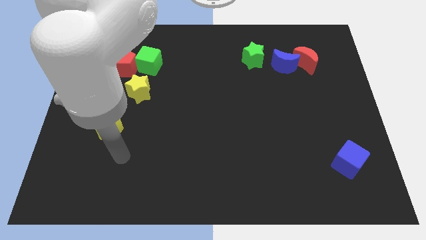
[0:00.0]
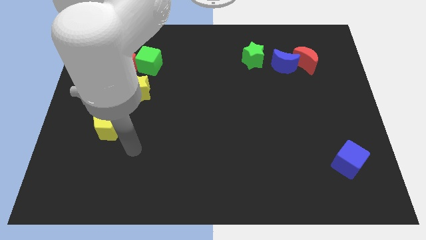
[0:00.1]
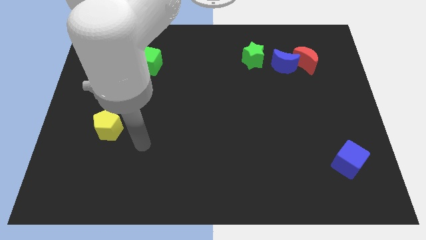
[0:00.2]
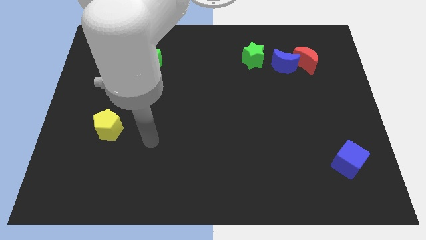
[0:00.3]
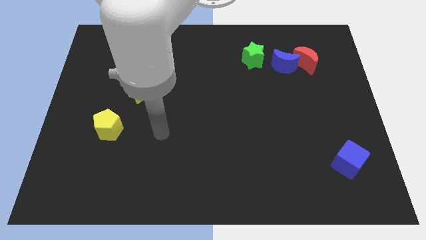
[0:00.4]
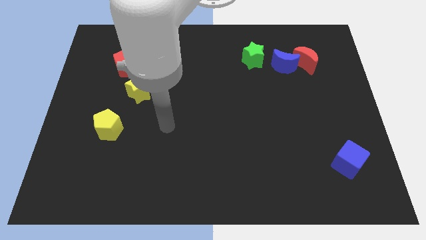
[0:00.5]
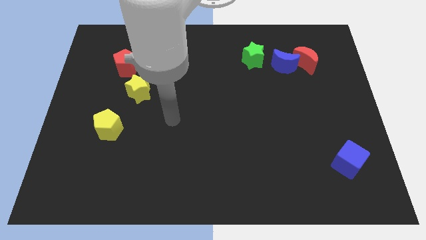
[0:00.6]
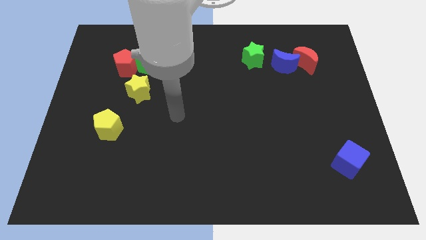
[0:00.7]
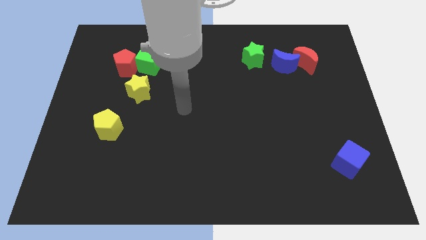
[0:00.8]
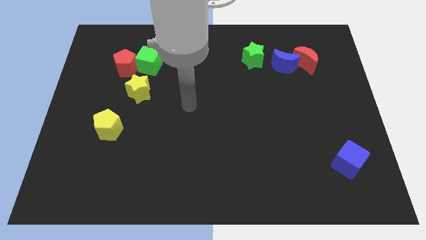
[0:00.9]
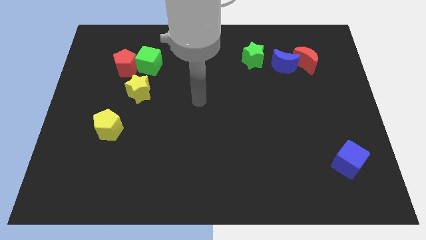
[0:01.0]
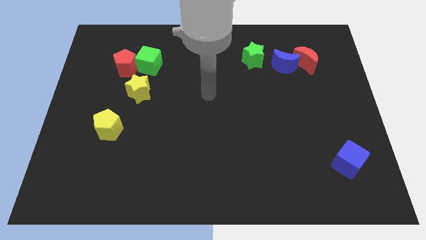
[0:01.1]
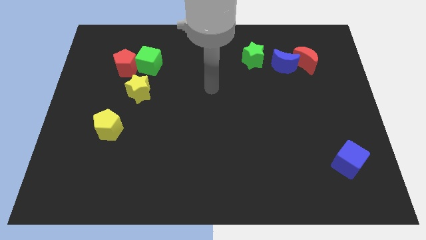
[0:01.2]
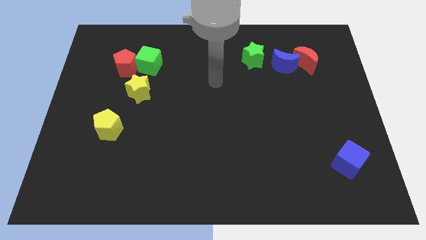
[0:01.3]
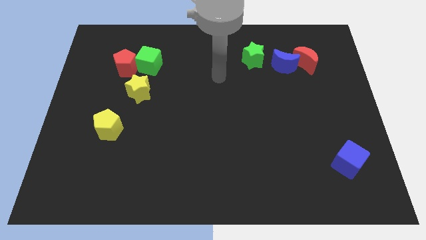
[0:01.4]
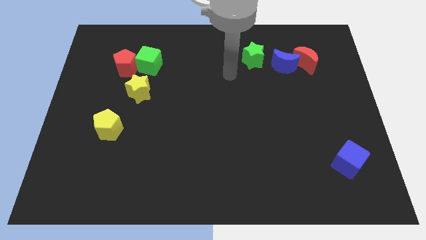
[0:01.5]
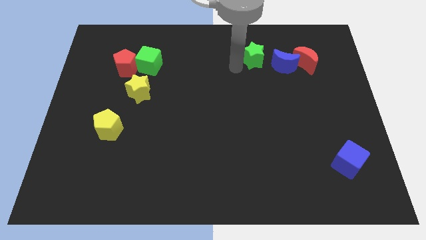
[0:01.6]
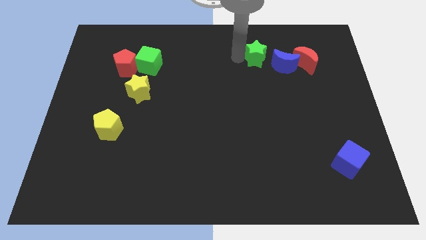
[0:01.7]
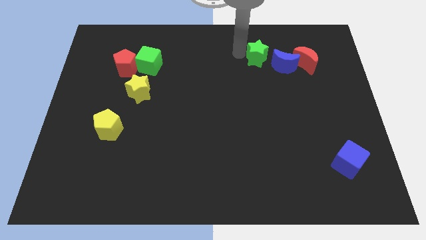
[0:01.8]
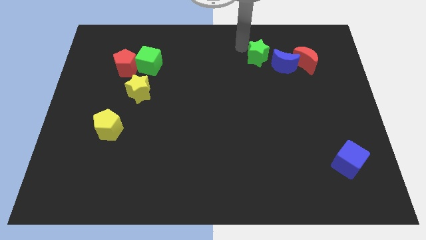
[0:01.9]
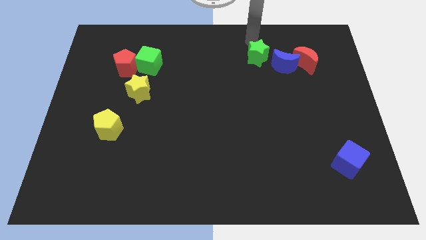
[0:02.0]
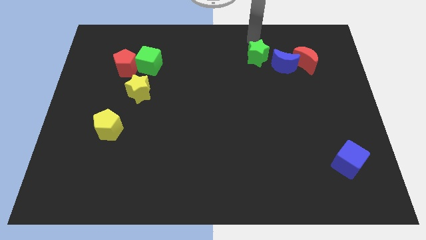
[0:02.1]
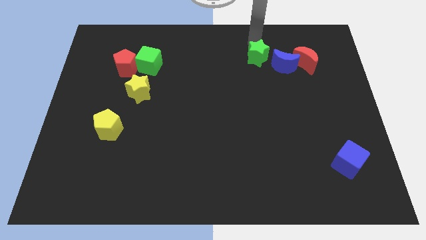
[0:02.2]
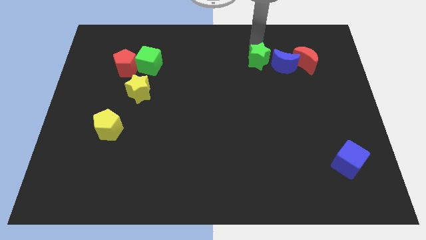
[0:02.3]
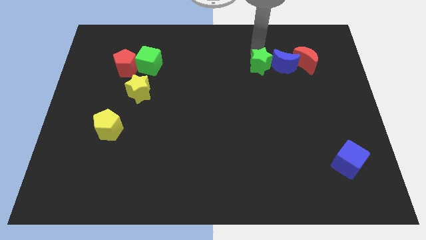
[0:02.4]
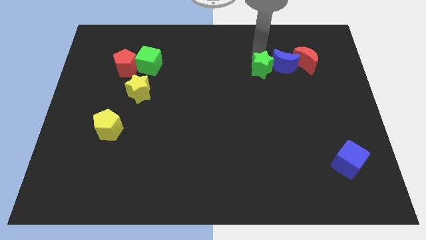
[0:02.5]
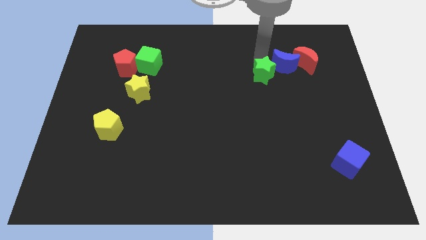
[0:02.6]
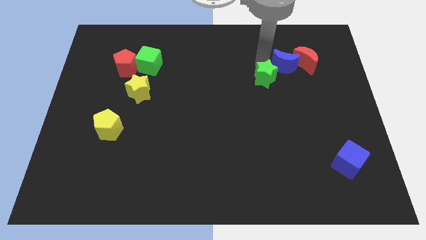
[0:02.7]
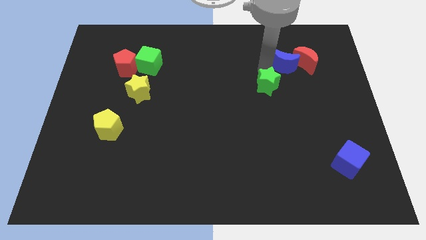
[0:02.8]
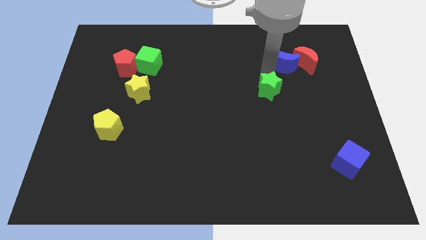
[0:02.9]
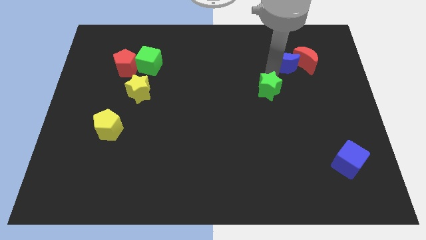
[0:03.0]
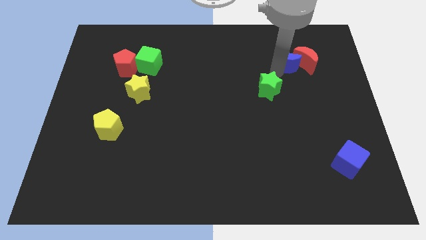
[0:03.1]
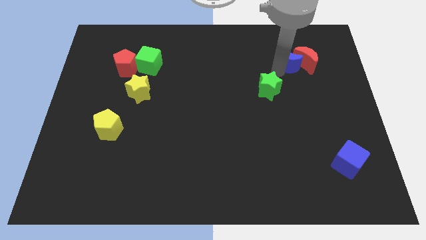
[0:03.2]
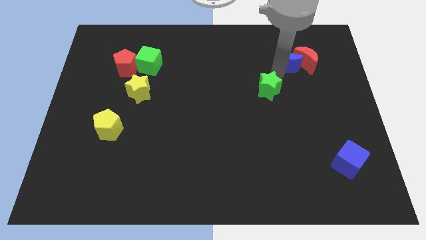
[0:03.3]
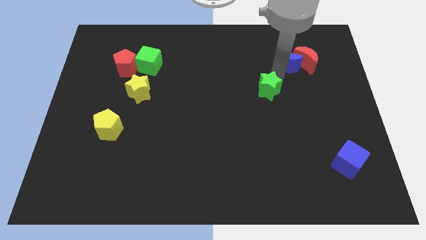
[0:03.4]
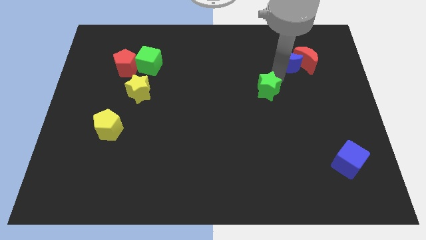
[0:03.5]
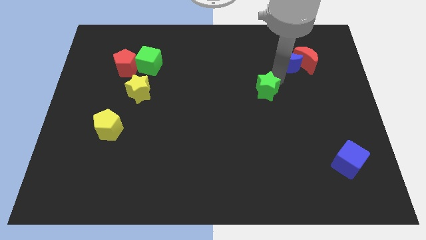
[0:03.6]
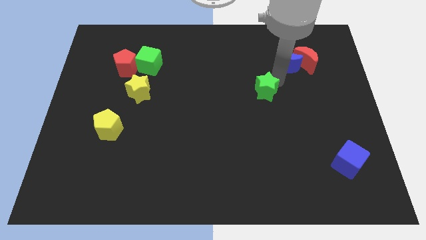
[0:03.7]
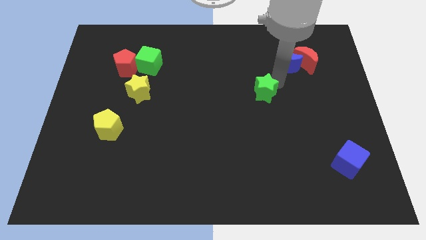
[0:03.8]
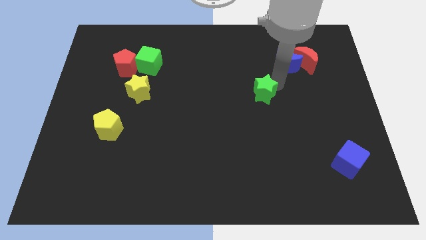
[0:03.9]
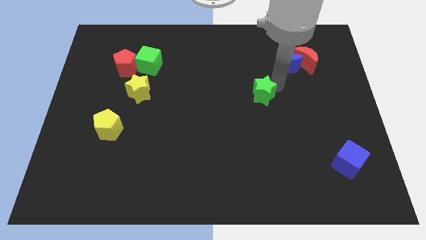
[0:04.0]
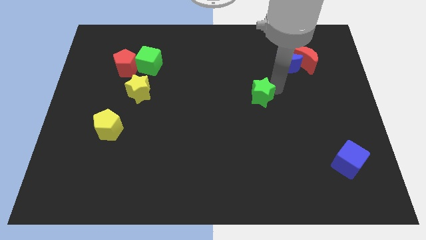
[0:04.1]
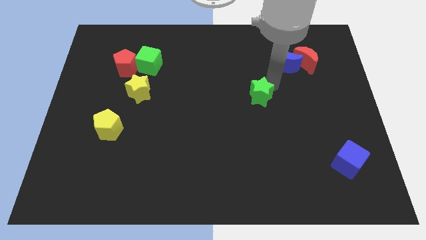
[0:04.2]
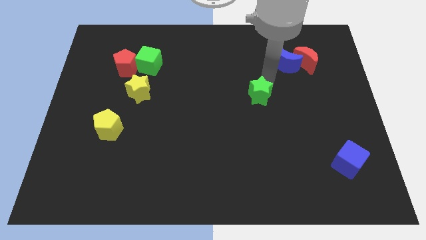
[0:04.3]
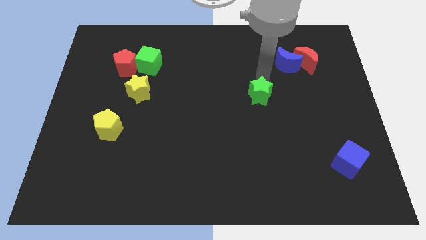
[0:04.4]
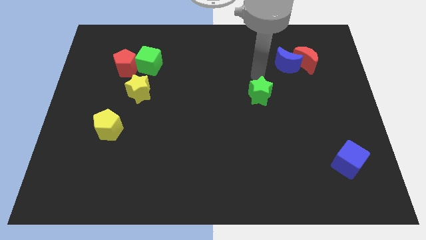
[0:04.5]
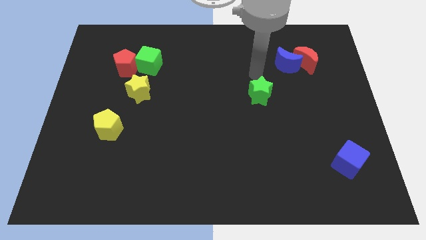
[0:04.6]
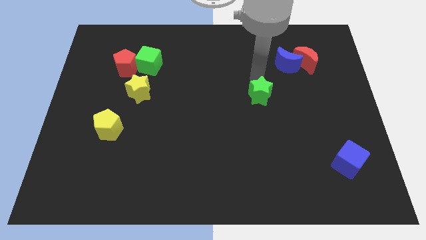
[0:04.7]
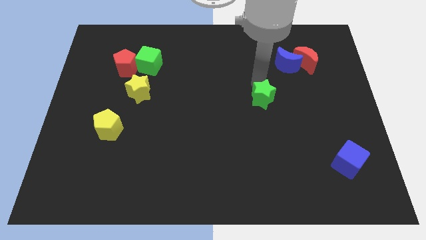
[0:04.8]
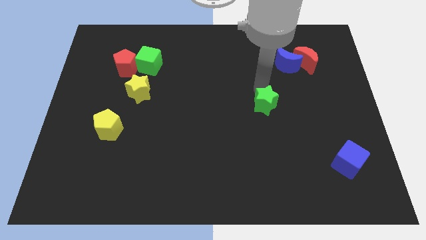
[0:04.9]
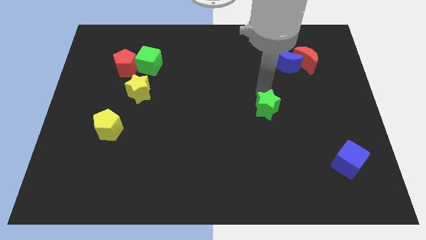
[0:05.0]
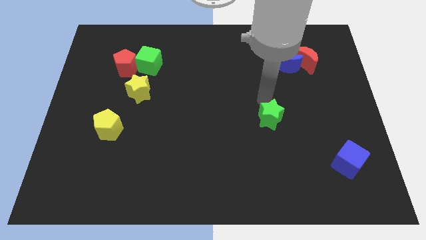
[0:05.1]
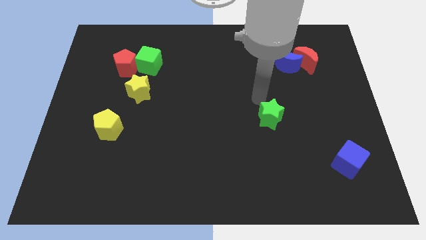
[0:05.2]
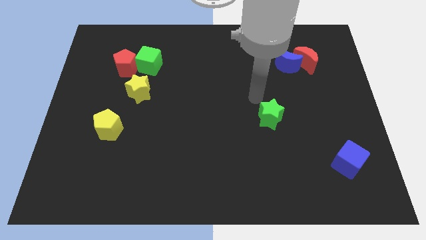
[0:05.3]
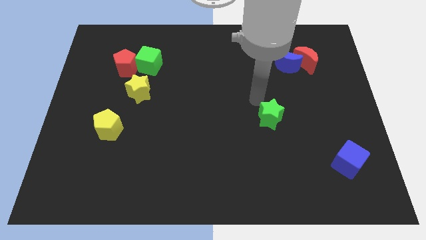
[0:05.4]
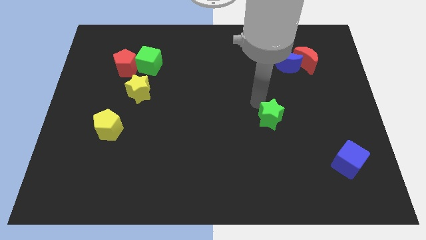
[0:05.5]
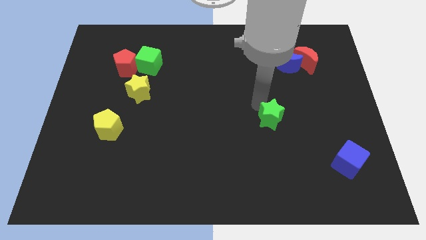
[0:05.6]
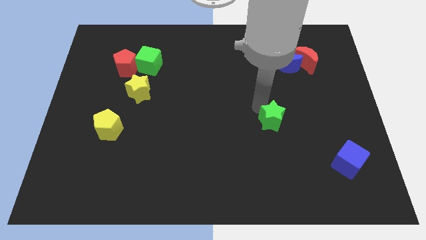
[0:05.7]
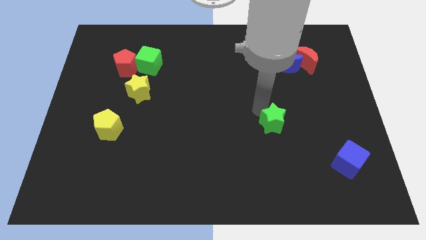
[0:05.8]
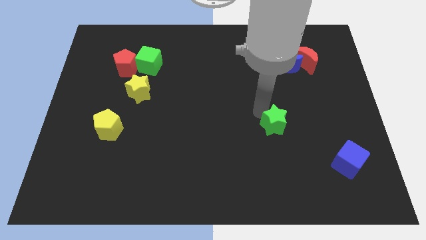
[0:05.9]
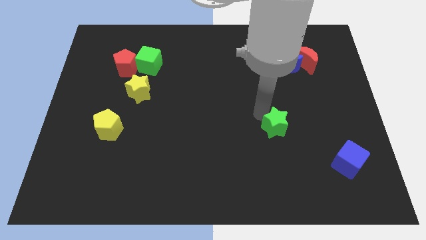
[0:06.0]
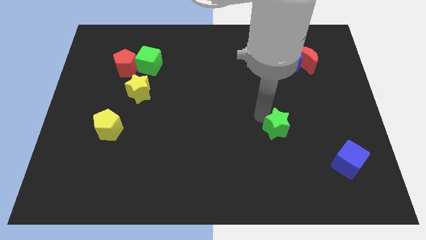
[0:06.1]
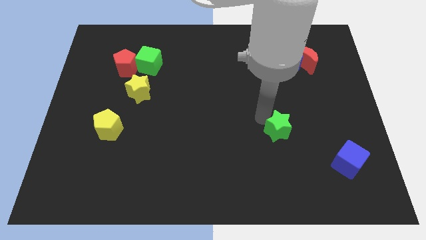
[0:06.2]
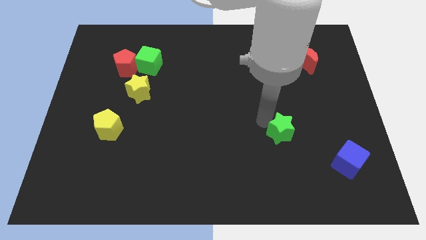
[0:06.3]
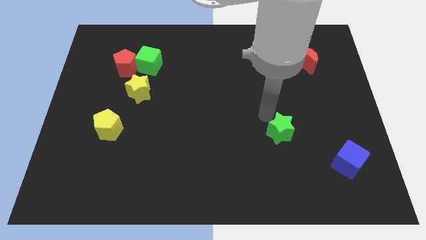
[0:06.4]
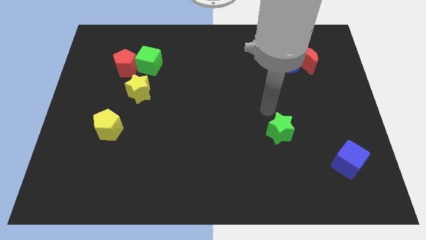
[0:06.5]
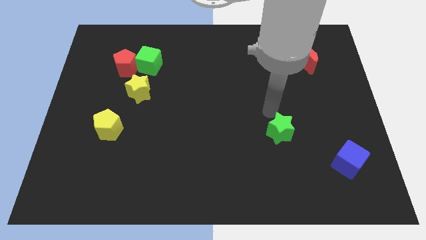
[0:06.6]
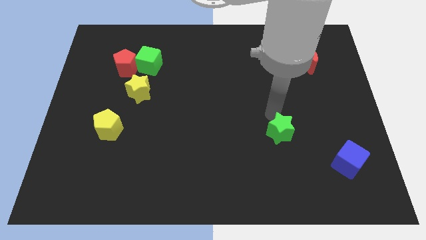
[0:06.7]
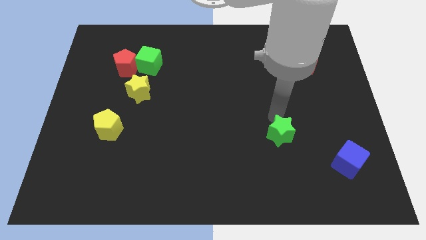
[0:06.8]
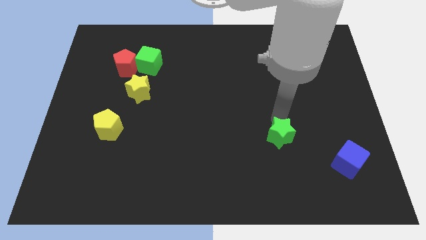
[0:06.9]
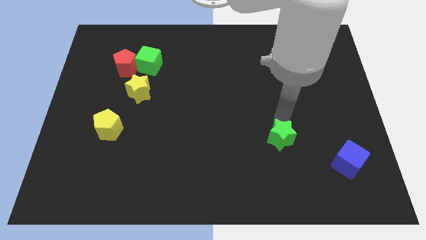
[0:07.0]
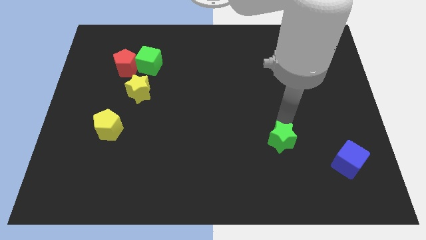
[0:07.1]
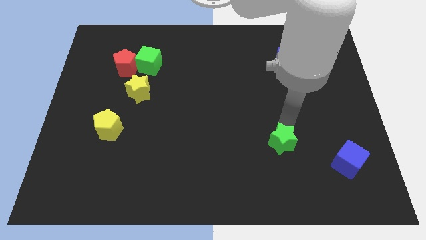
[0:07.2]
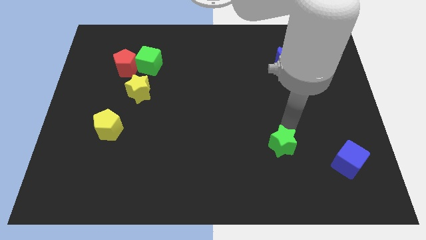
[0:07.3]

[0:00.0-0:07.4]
put the green star just left of the blue cube
